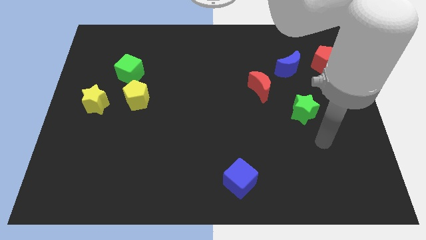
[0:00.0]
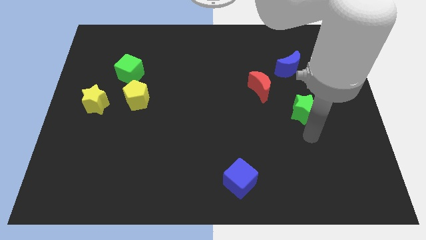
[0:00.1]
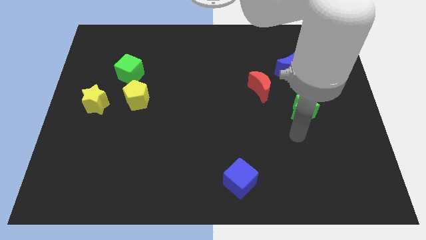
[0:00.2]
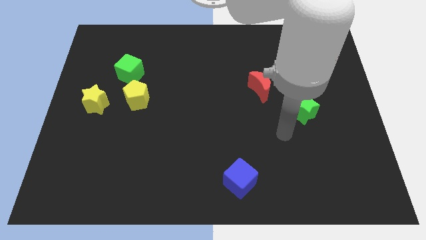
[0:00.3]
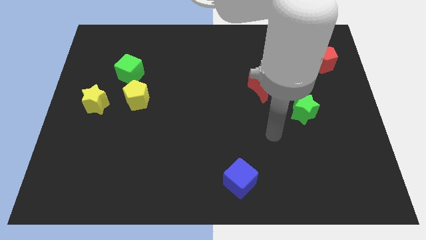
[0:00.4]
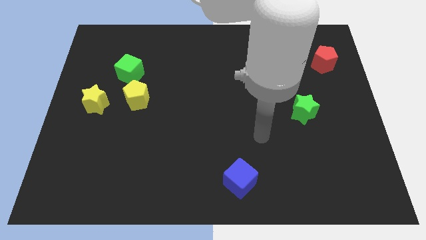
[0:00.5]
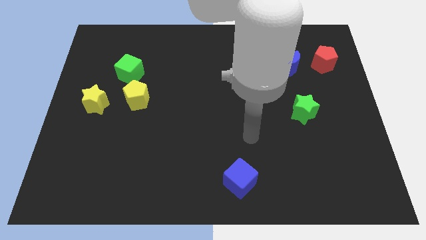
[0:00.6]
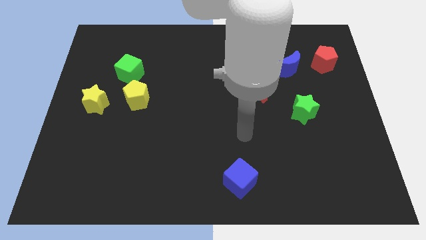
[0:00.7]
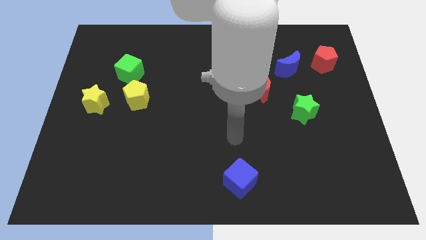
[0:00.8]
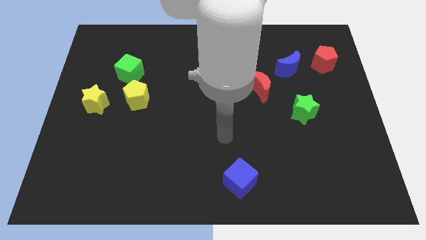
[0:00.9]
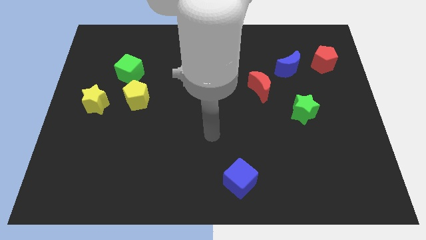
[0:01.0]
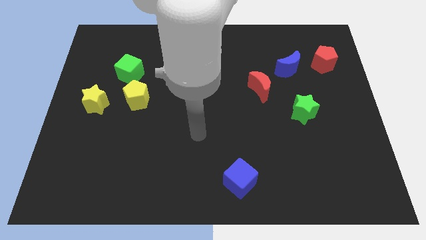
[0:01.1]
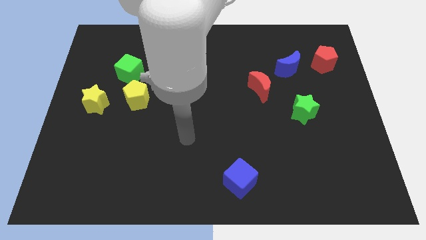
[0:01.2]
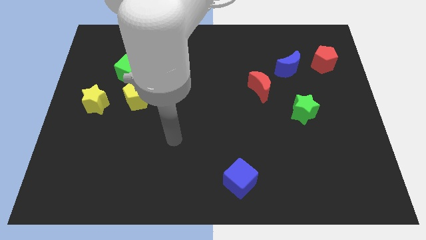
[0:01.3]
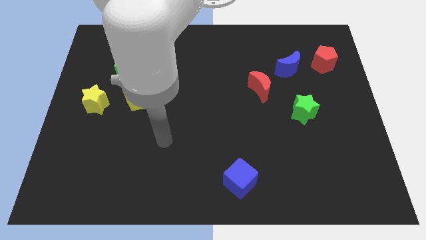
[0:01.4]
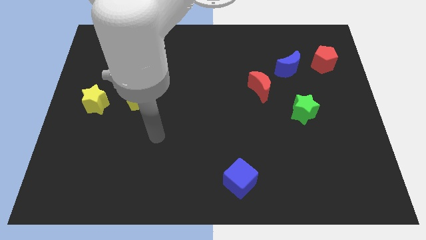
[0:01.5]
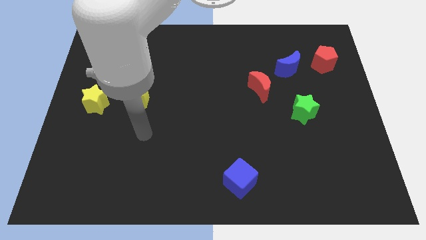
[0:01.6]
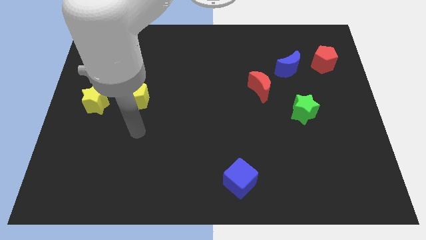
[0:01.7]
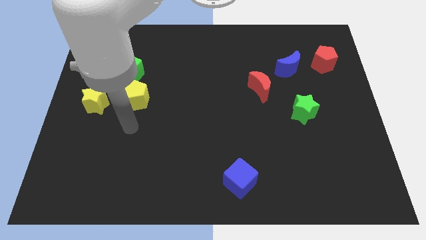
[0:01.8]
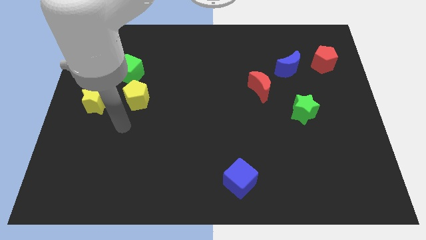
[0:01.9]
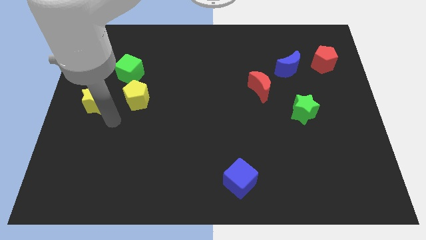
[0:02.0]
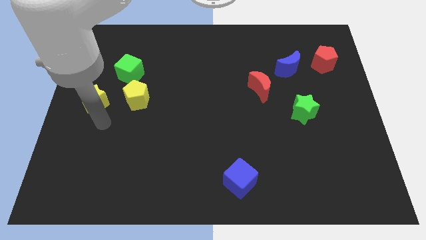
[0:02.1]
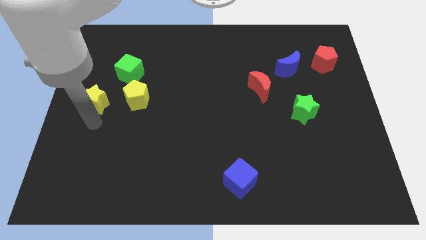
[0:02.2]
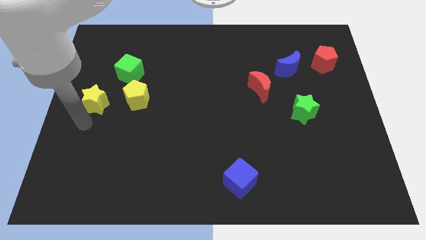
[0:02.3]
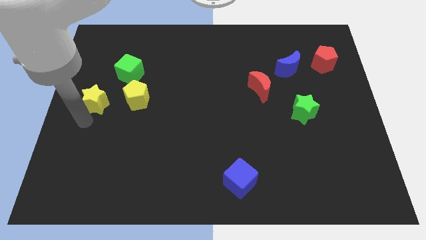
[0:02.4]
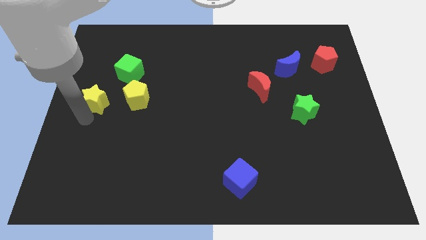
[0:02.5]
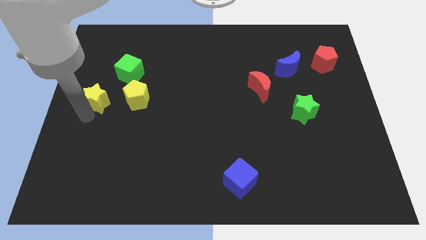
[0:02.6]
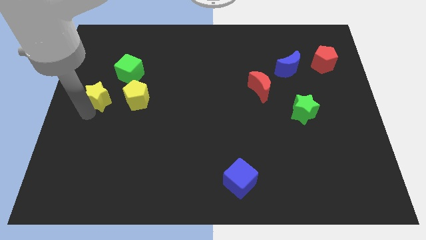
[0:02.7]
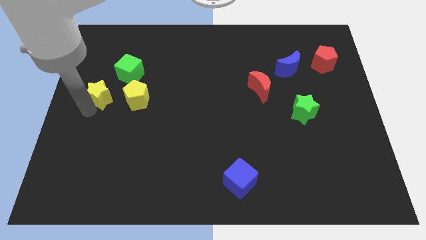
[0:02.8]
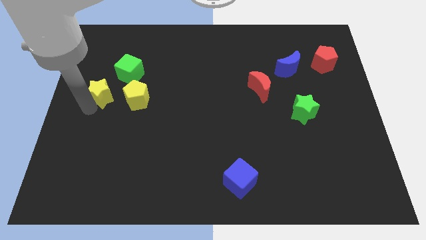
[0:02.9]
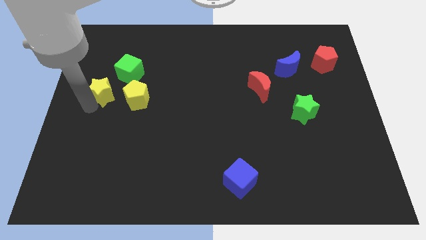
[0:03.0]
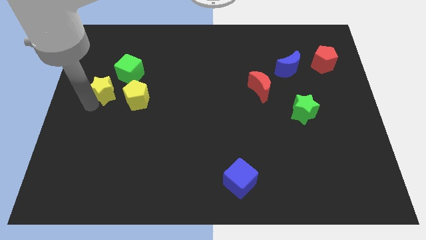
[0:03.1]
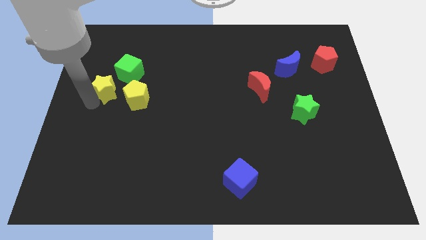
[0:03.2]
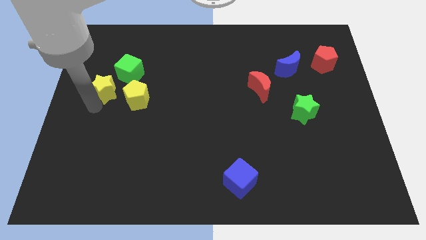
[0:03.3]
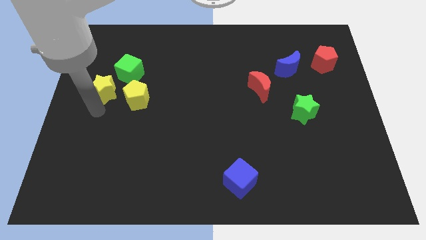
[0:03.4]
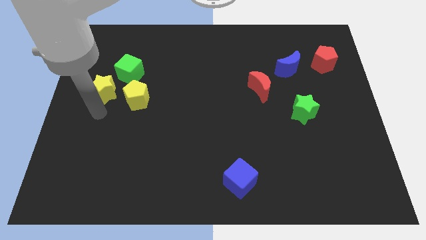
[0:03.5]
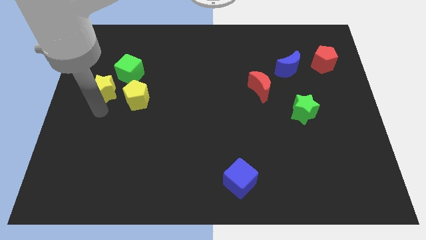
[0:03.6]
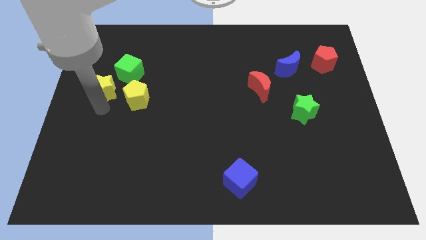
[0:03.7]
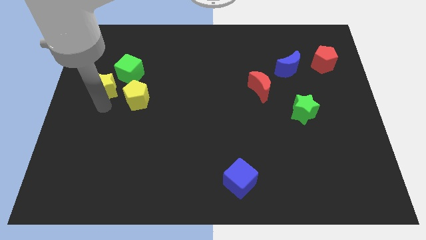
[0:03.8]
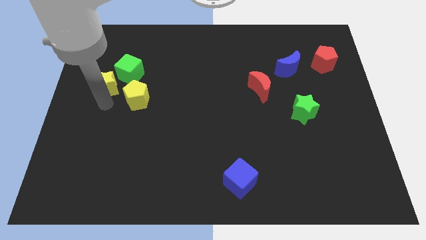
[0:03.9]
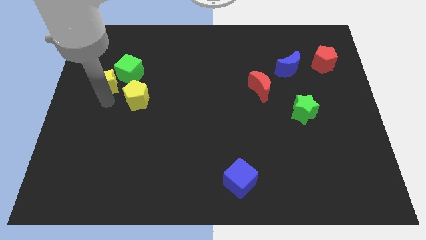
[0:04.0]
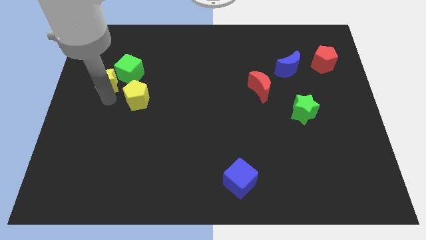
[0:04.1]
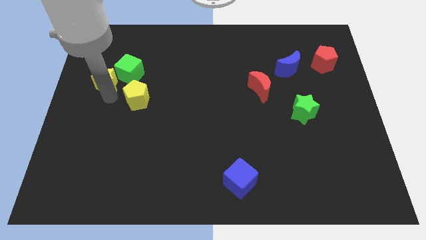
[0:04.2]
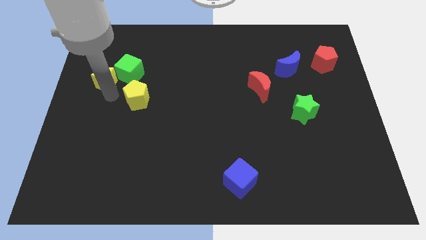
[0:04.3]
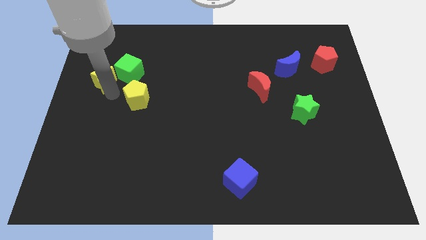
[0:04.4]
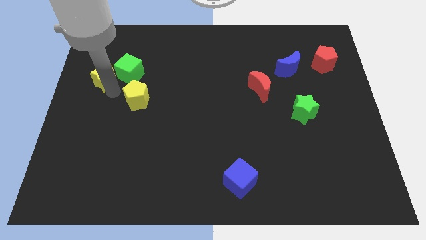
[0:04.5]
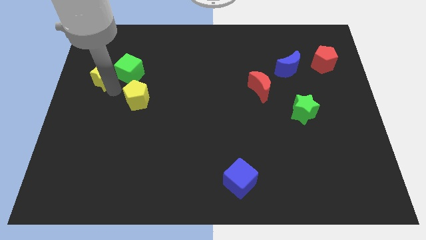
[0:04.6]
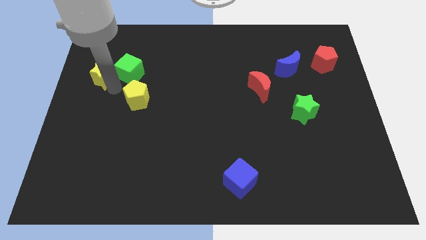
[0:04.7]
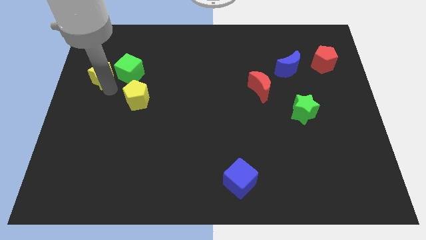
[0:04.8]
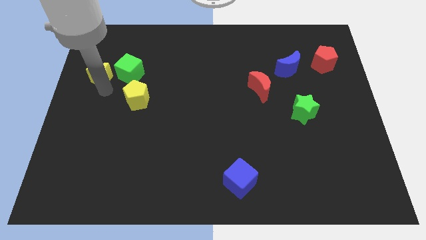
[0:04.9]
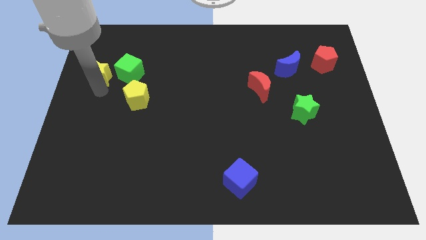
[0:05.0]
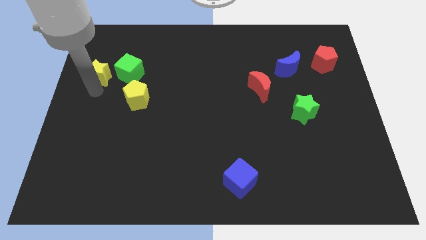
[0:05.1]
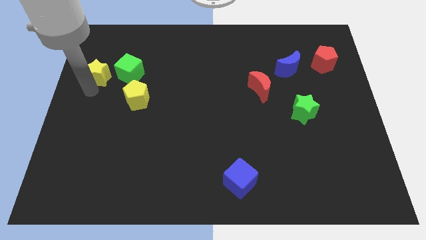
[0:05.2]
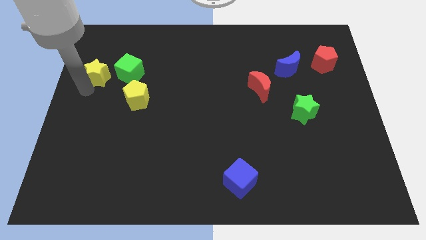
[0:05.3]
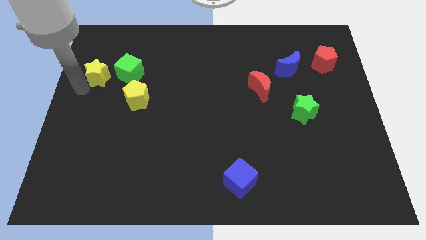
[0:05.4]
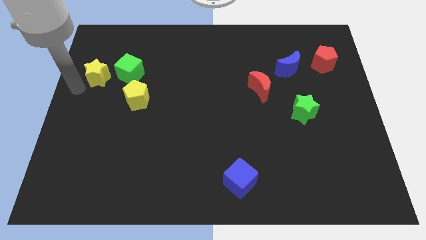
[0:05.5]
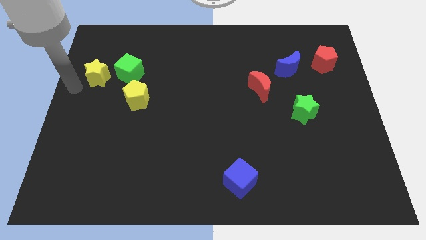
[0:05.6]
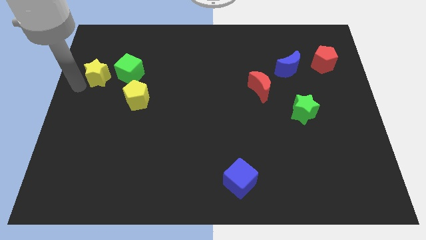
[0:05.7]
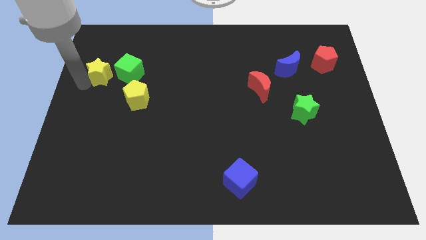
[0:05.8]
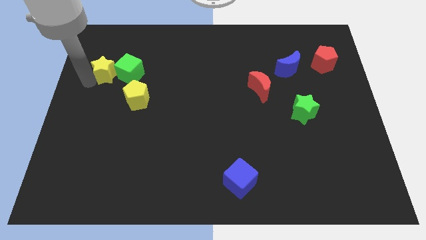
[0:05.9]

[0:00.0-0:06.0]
push the yellow star to the top left of the green cube

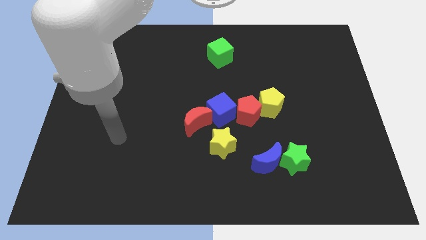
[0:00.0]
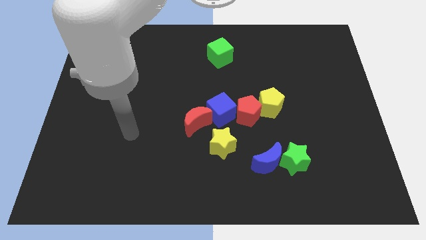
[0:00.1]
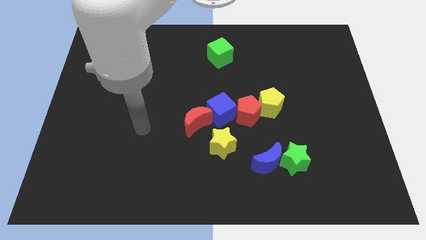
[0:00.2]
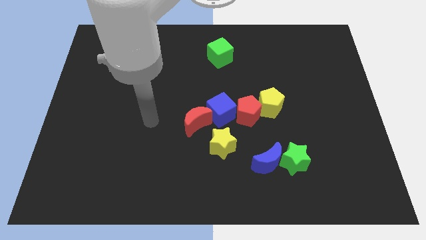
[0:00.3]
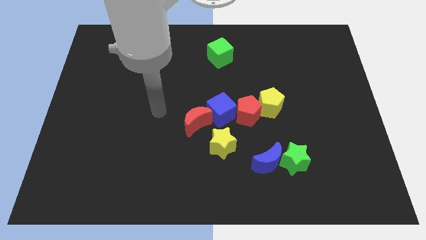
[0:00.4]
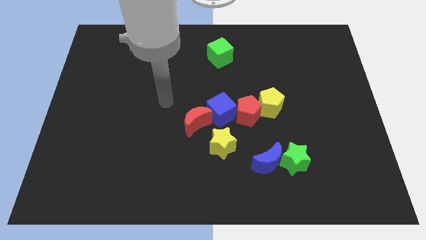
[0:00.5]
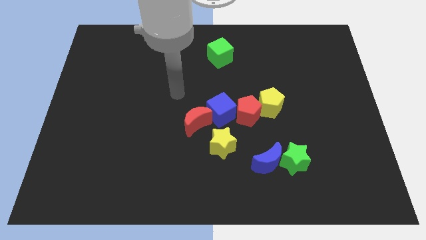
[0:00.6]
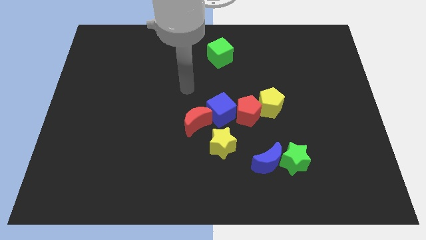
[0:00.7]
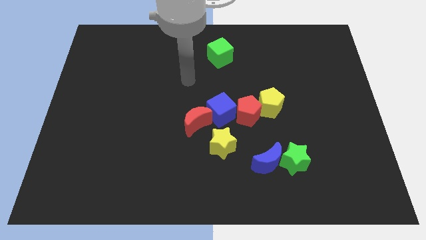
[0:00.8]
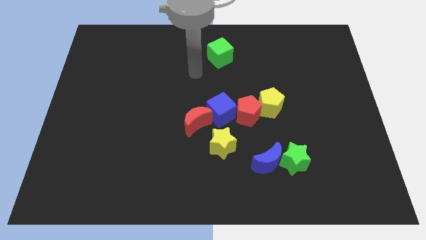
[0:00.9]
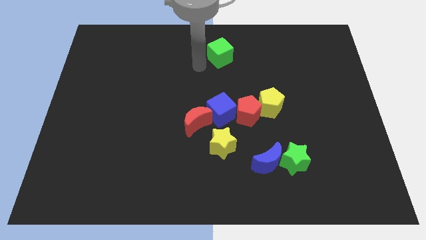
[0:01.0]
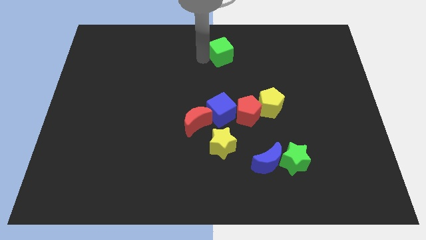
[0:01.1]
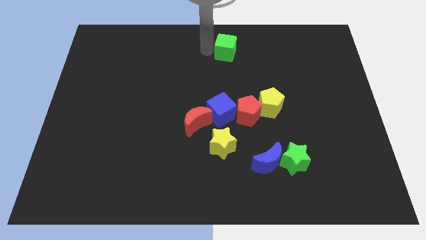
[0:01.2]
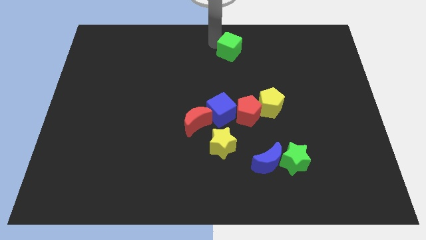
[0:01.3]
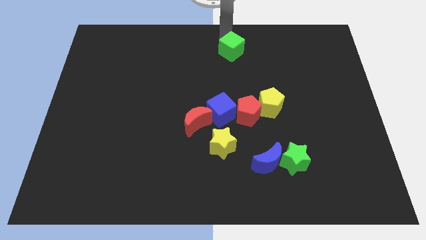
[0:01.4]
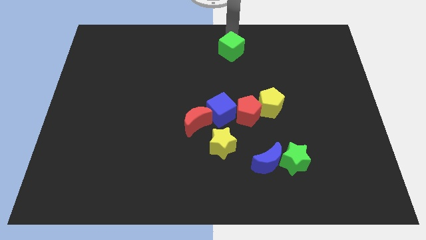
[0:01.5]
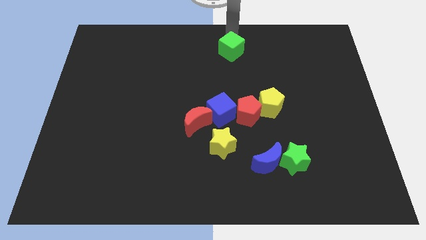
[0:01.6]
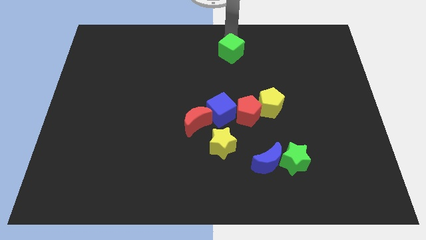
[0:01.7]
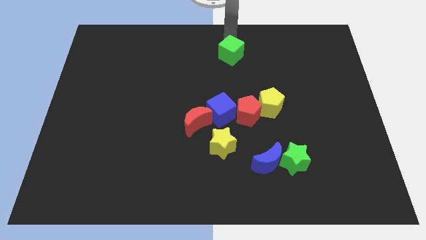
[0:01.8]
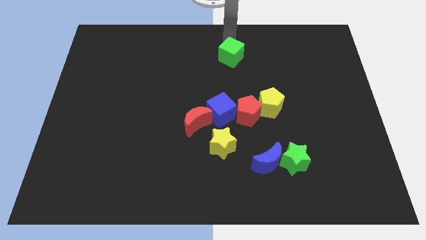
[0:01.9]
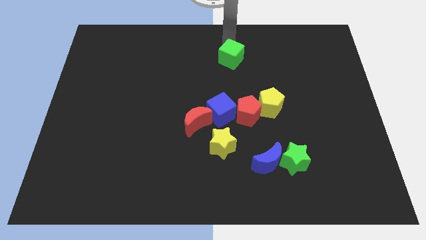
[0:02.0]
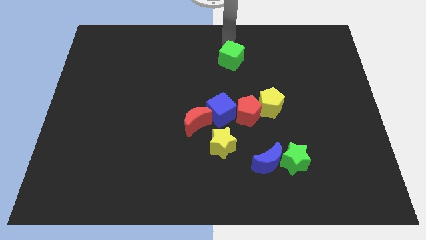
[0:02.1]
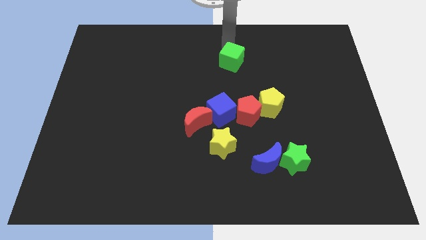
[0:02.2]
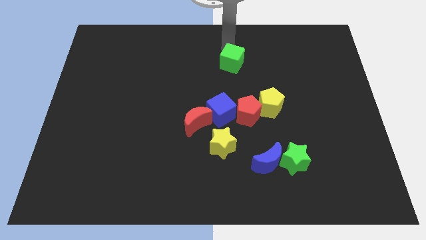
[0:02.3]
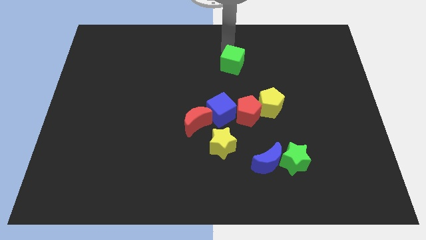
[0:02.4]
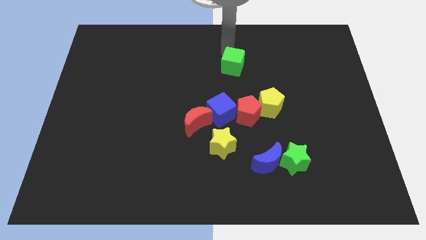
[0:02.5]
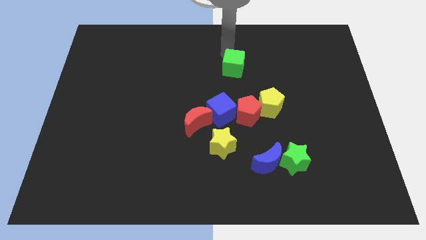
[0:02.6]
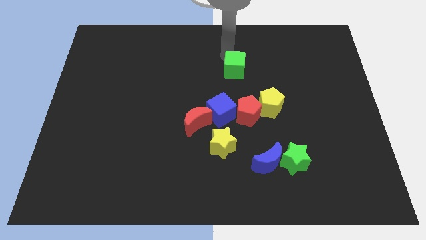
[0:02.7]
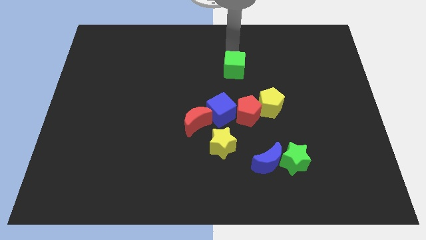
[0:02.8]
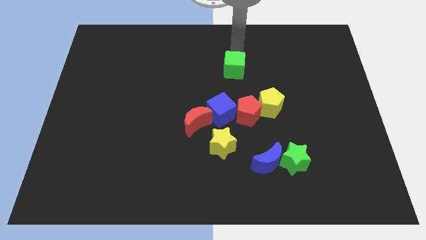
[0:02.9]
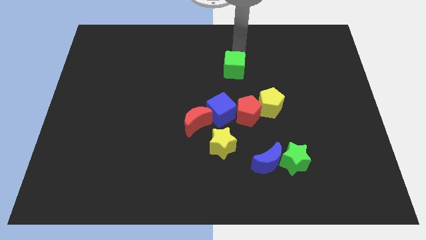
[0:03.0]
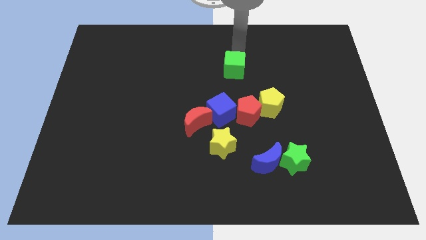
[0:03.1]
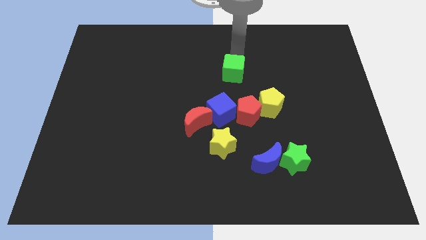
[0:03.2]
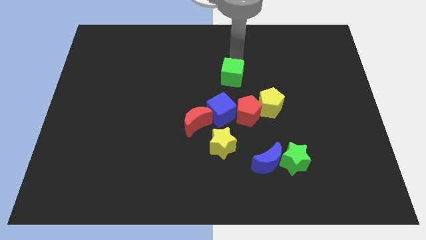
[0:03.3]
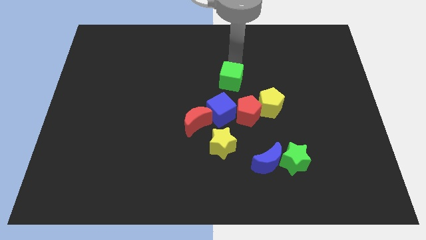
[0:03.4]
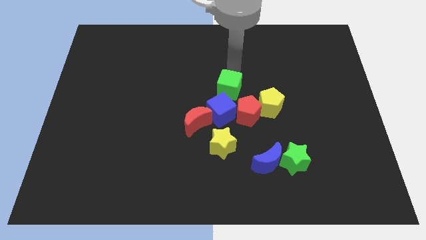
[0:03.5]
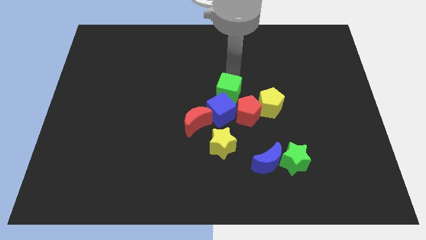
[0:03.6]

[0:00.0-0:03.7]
push the green cube to the top right of the red moon
